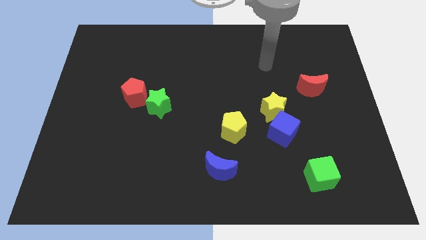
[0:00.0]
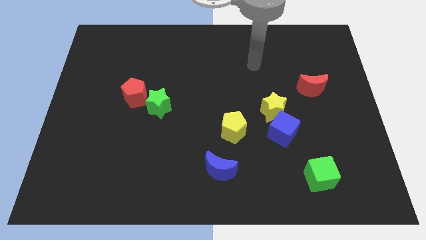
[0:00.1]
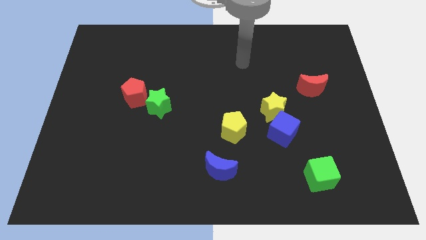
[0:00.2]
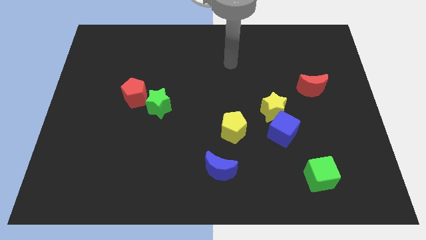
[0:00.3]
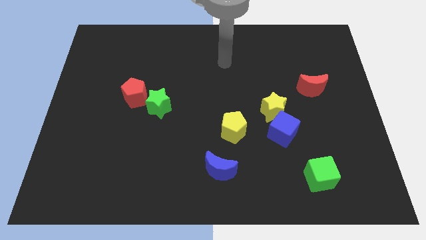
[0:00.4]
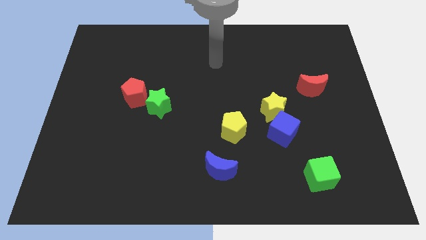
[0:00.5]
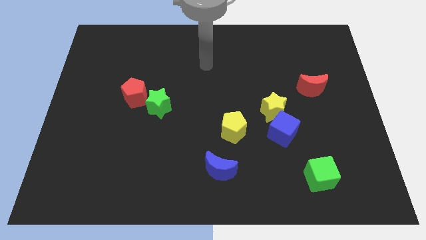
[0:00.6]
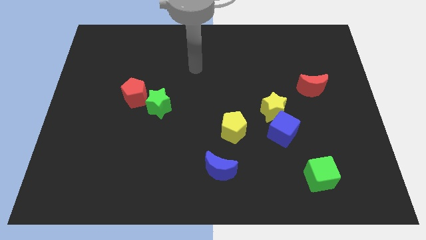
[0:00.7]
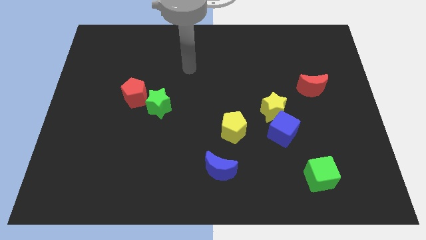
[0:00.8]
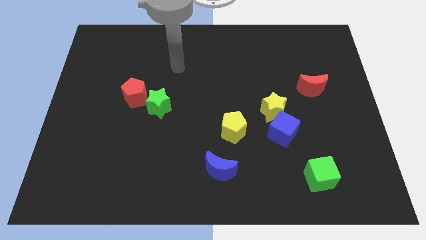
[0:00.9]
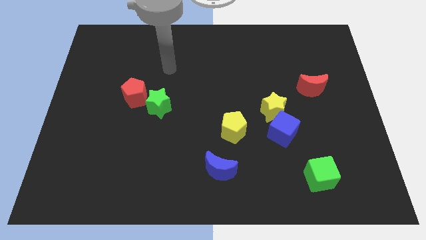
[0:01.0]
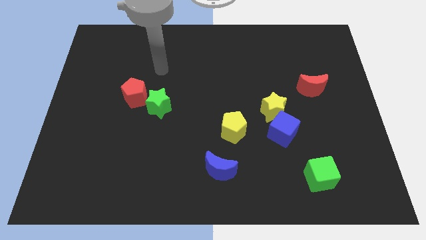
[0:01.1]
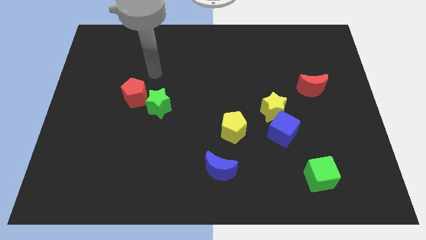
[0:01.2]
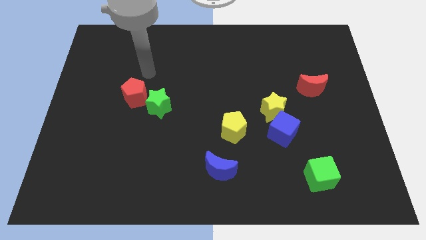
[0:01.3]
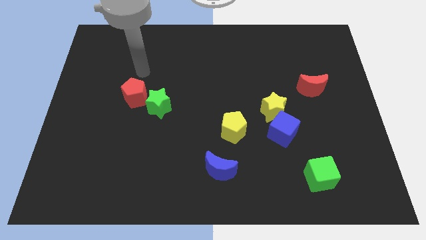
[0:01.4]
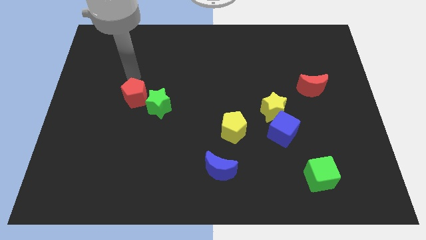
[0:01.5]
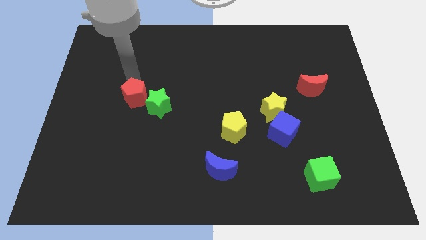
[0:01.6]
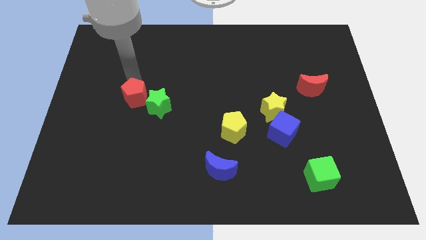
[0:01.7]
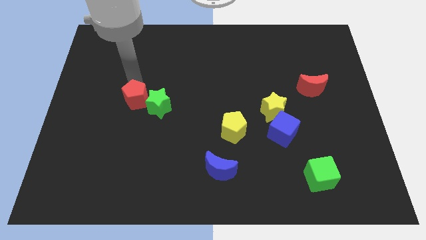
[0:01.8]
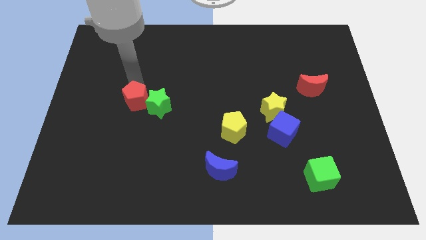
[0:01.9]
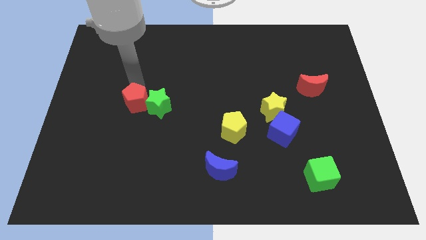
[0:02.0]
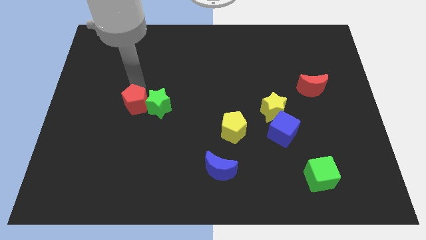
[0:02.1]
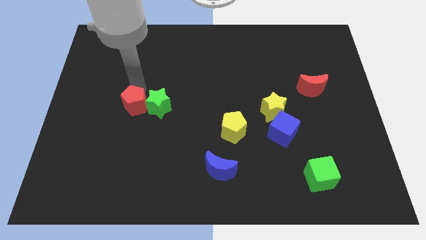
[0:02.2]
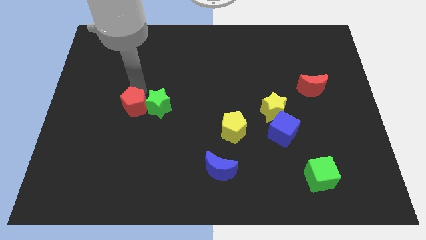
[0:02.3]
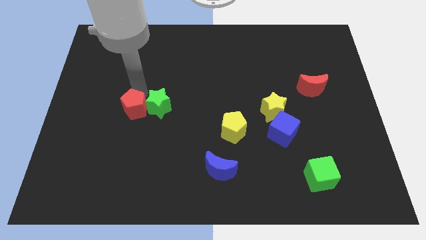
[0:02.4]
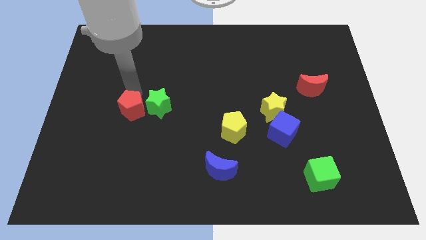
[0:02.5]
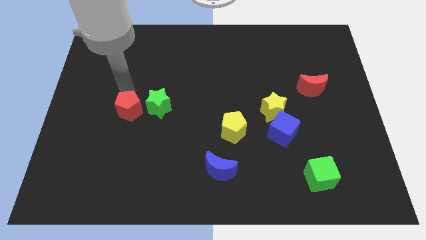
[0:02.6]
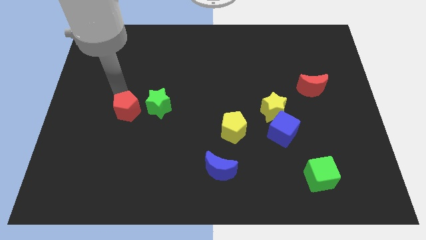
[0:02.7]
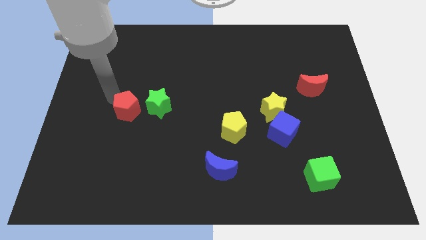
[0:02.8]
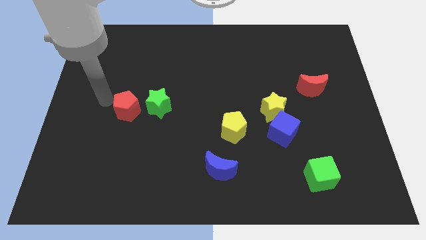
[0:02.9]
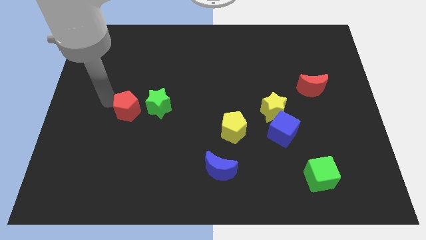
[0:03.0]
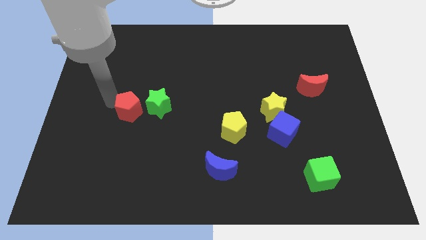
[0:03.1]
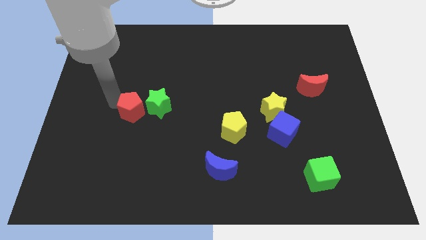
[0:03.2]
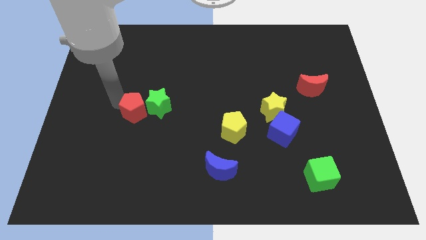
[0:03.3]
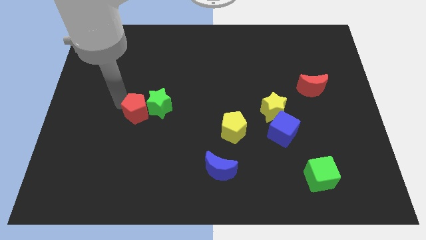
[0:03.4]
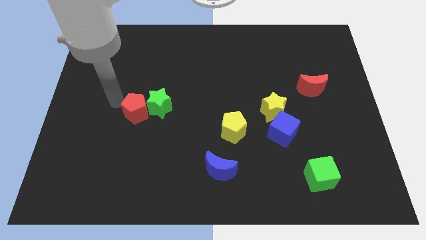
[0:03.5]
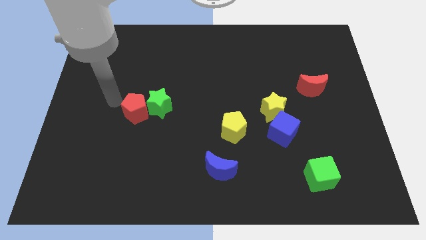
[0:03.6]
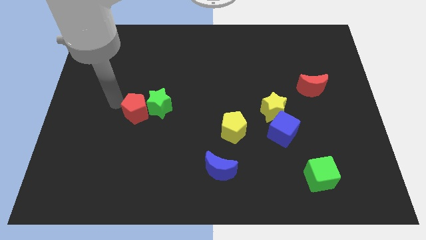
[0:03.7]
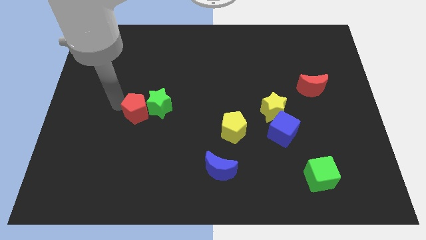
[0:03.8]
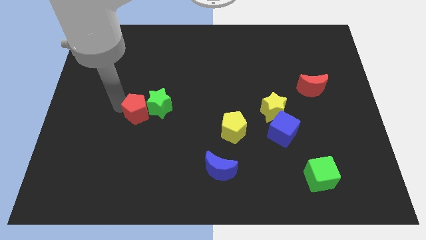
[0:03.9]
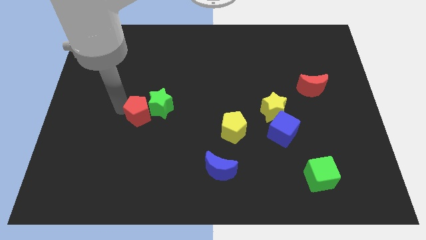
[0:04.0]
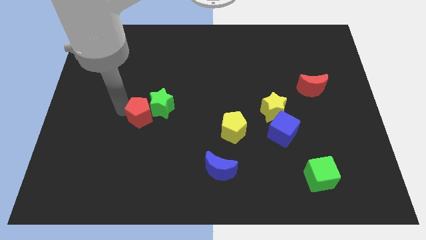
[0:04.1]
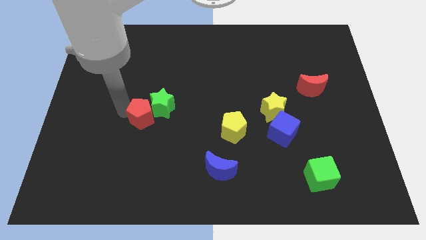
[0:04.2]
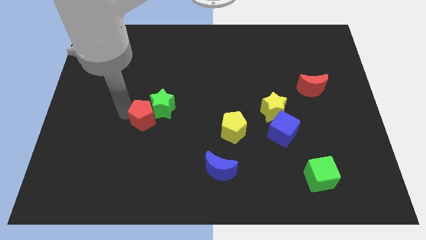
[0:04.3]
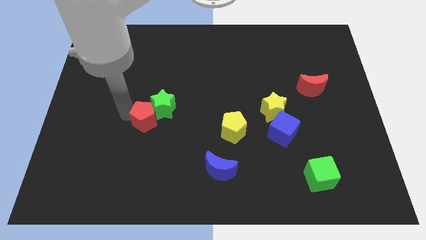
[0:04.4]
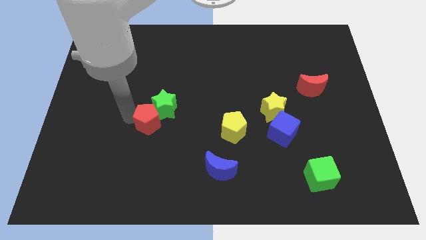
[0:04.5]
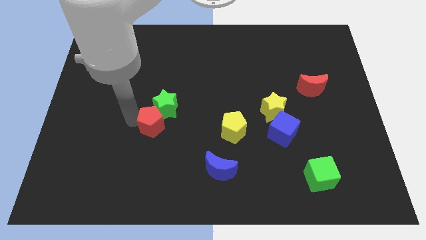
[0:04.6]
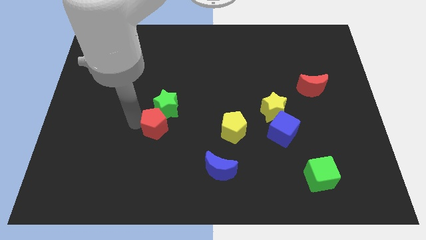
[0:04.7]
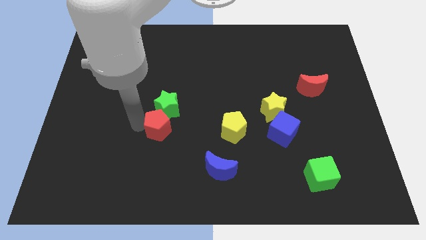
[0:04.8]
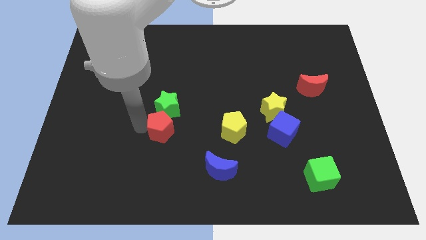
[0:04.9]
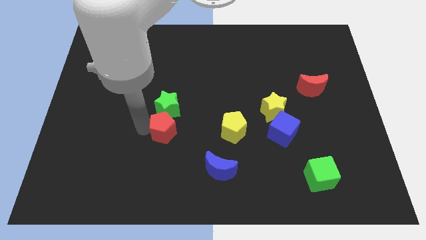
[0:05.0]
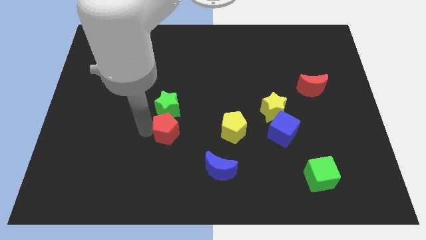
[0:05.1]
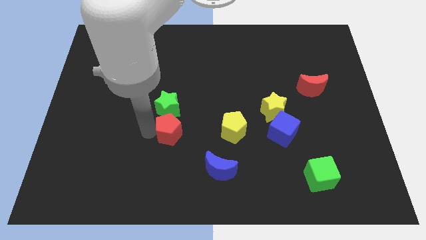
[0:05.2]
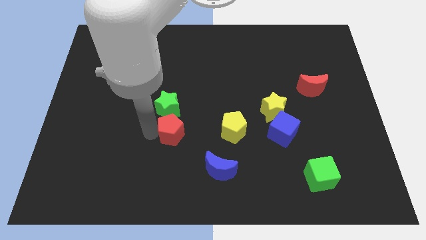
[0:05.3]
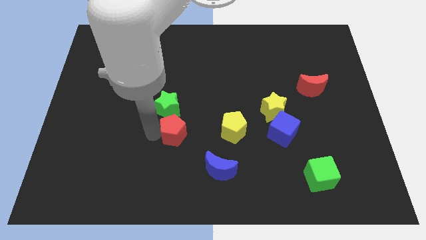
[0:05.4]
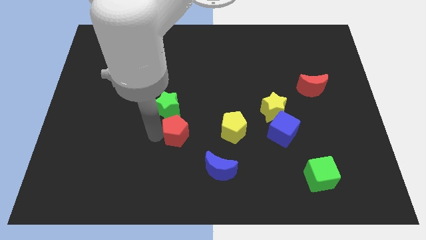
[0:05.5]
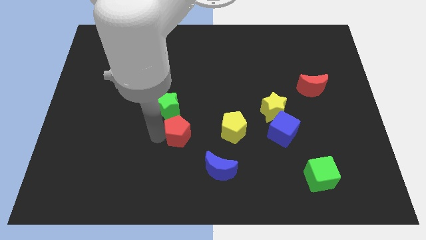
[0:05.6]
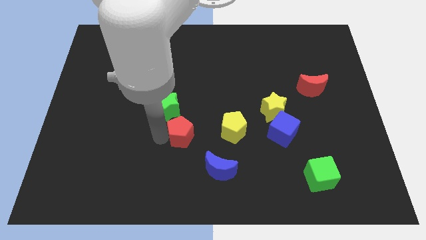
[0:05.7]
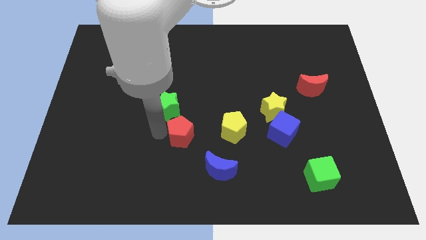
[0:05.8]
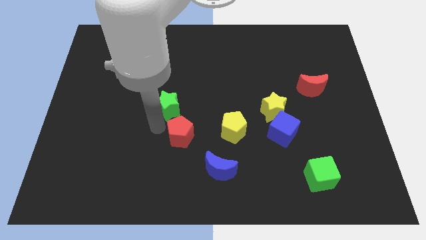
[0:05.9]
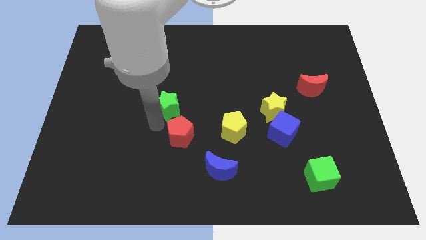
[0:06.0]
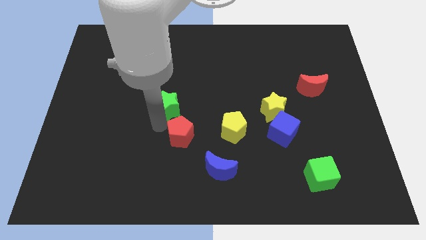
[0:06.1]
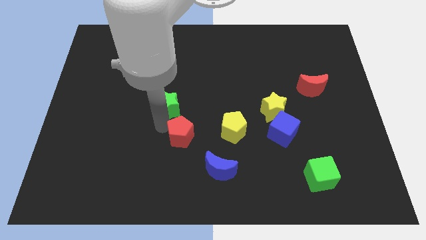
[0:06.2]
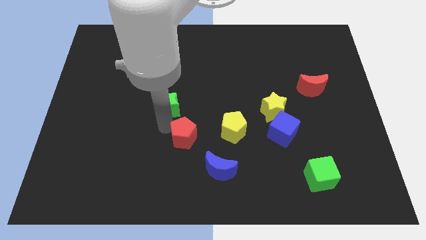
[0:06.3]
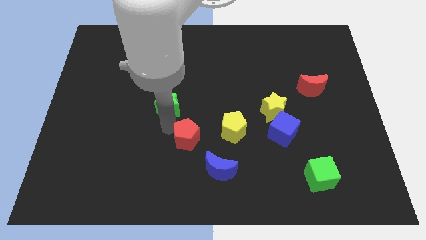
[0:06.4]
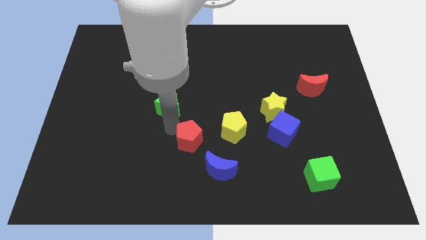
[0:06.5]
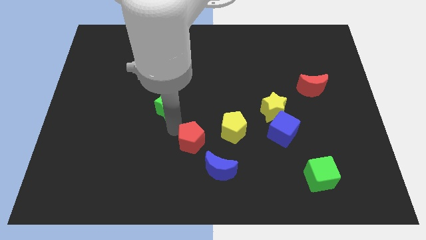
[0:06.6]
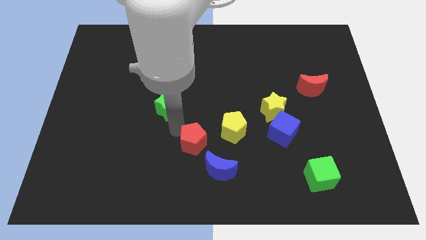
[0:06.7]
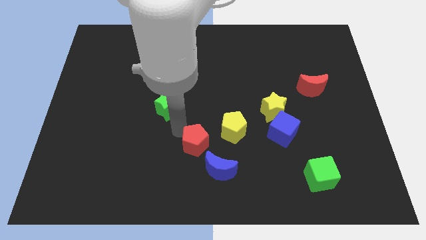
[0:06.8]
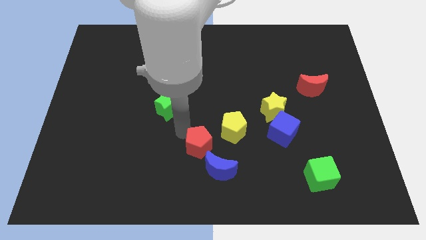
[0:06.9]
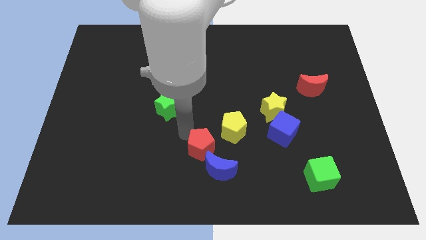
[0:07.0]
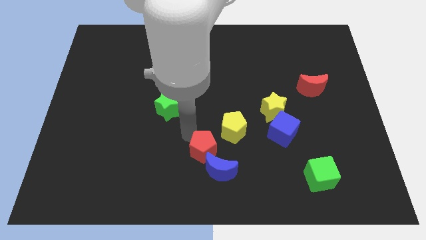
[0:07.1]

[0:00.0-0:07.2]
move the red pentagon next to the blue moon

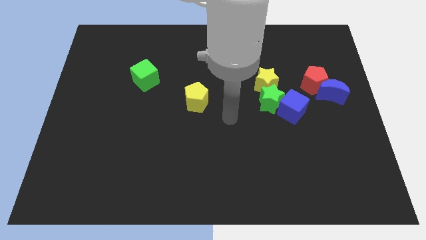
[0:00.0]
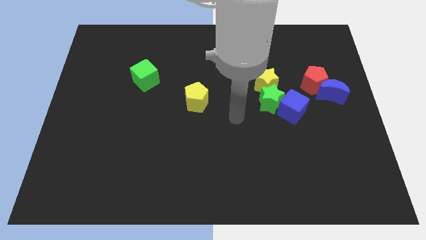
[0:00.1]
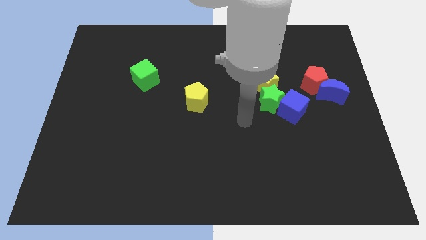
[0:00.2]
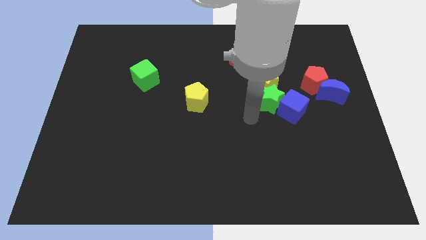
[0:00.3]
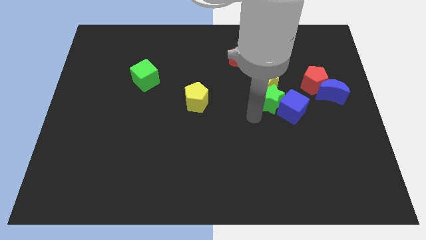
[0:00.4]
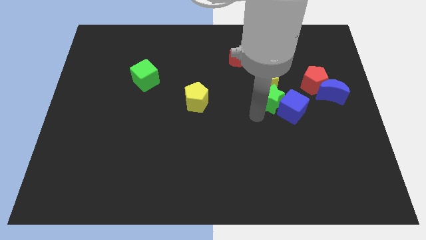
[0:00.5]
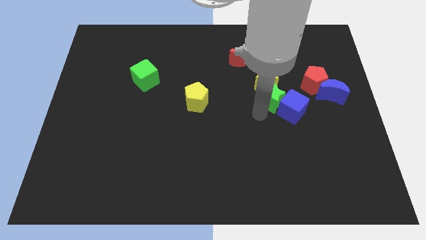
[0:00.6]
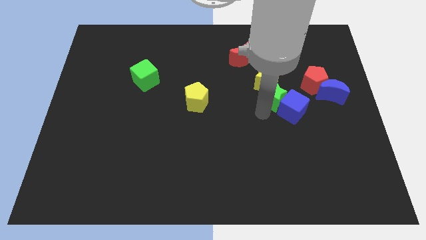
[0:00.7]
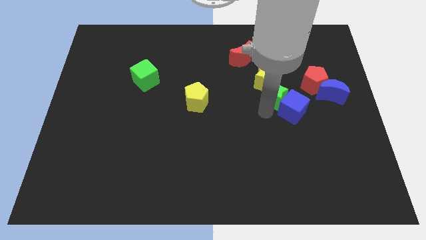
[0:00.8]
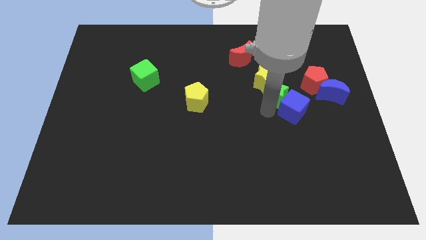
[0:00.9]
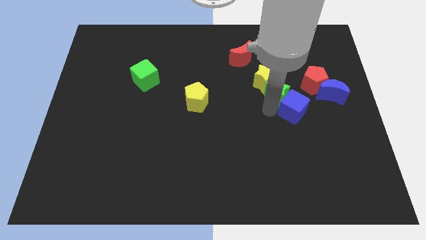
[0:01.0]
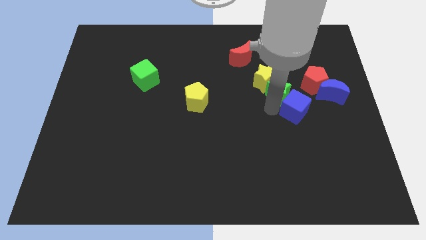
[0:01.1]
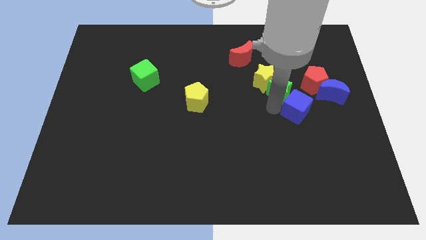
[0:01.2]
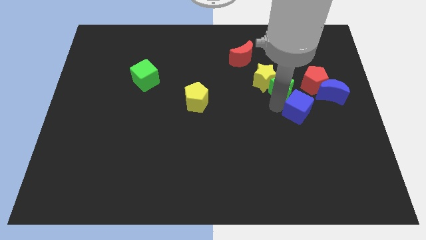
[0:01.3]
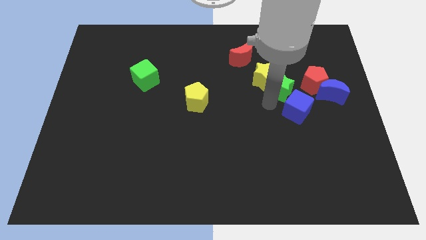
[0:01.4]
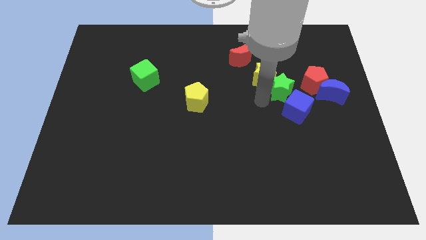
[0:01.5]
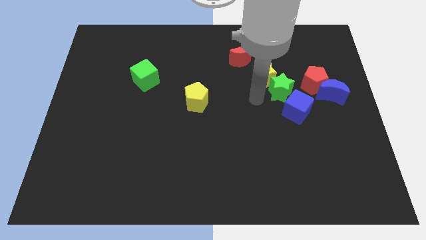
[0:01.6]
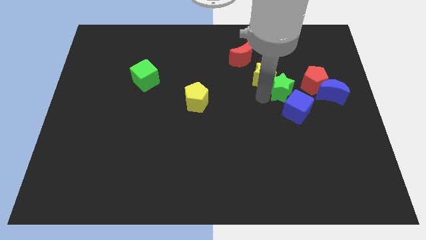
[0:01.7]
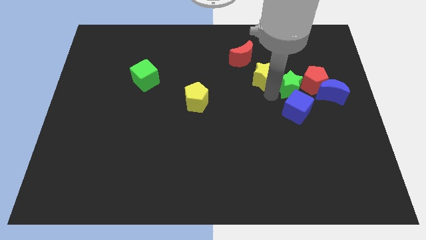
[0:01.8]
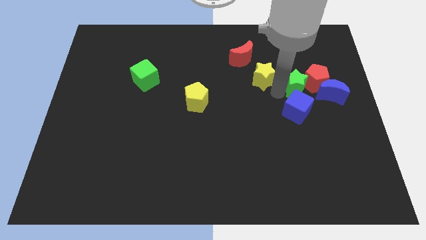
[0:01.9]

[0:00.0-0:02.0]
put the green star close to the red pentagon
